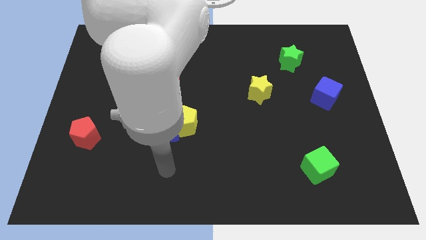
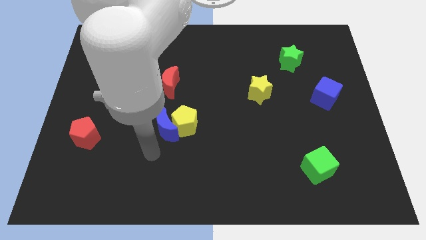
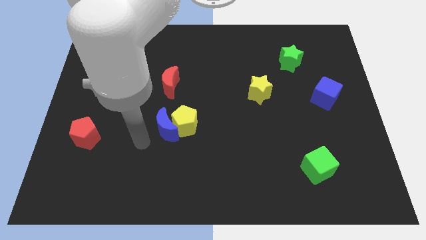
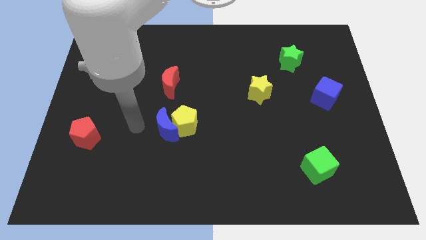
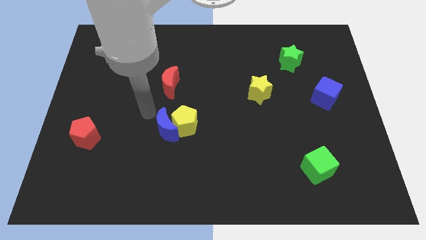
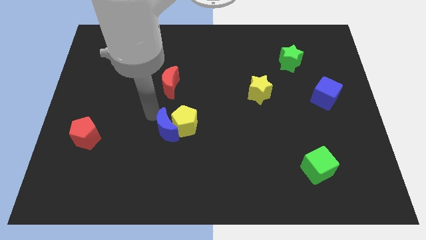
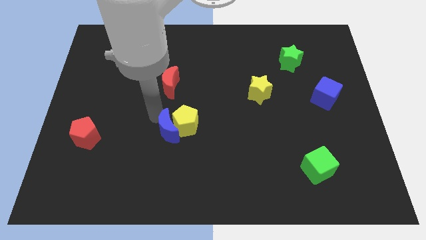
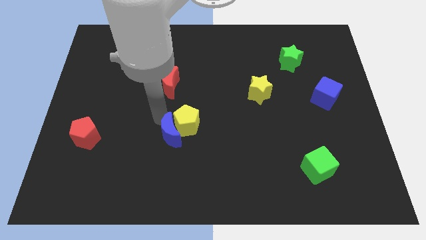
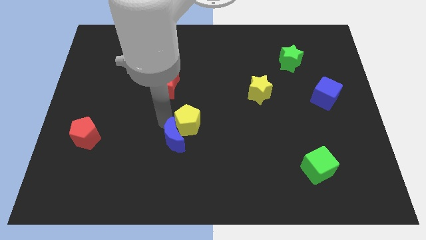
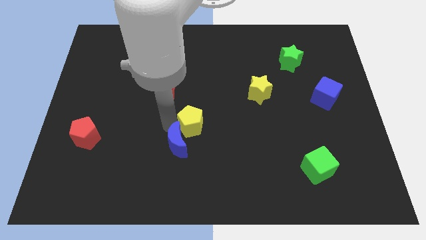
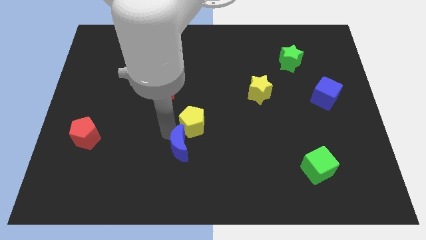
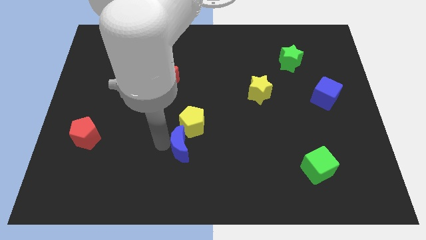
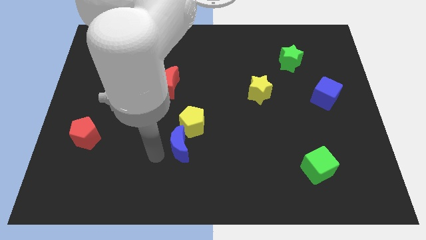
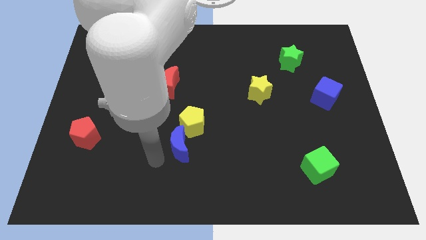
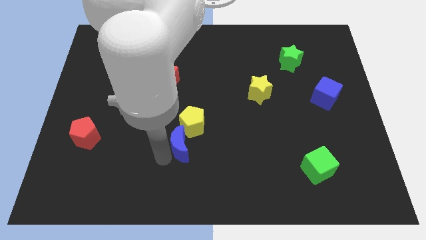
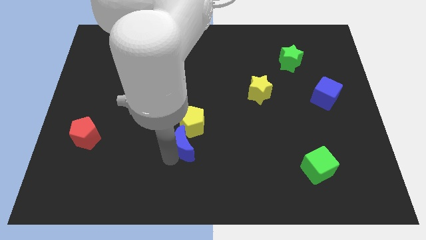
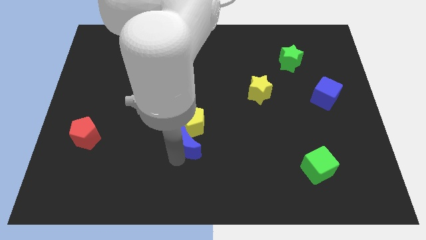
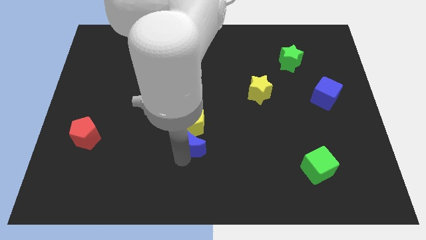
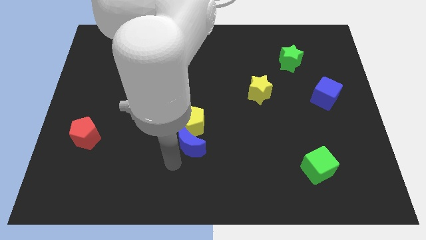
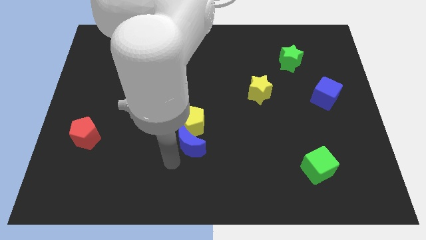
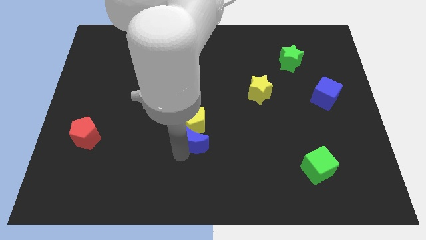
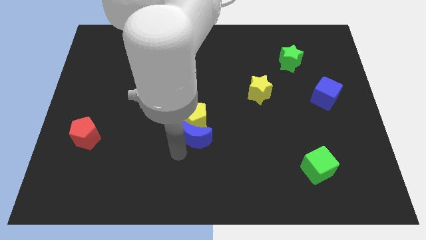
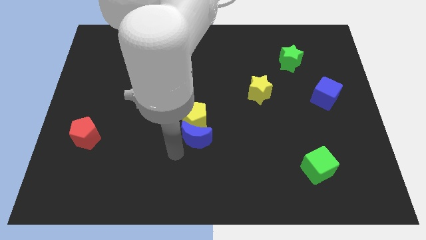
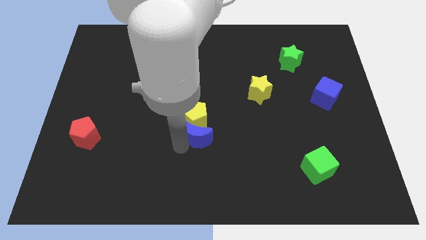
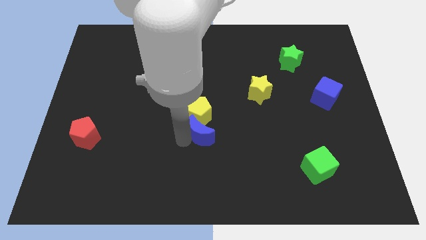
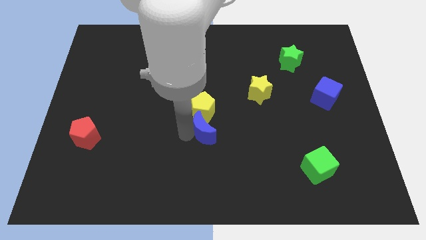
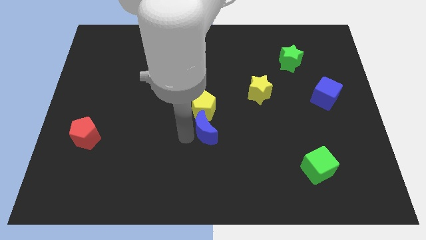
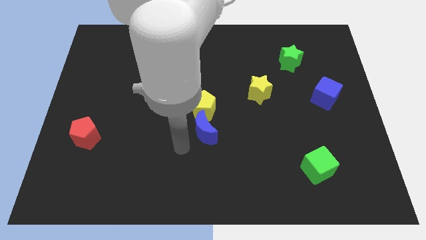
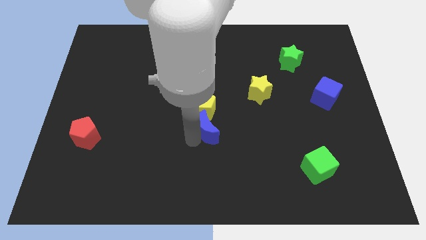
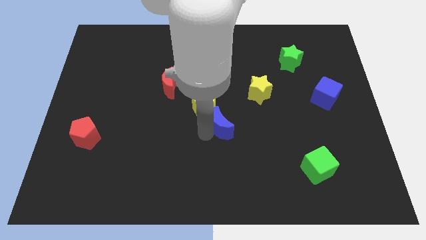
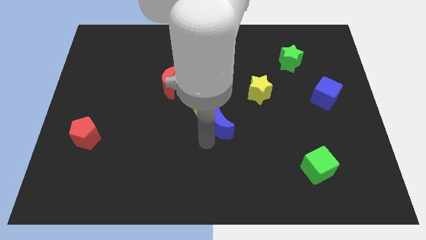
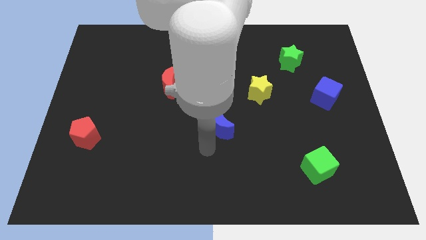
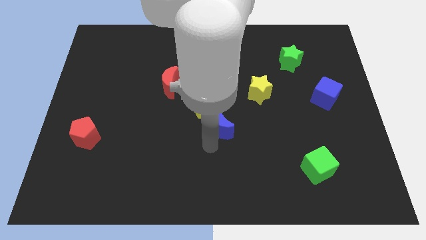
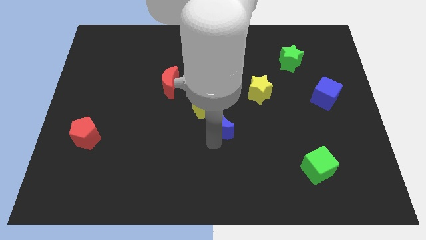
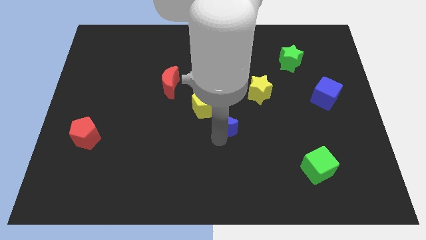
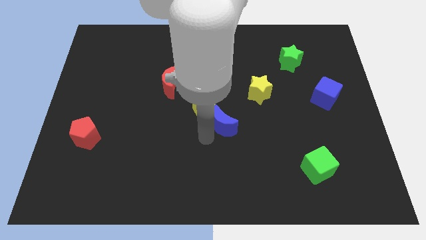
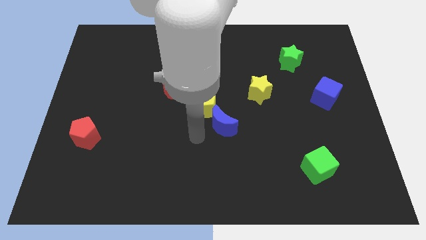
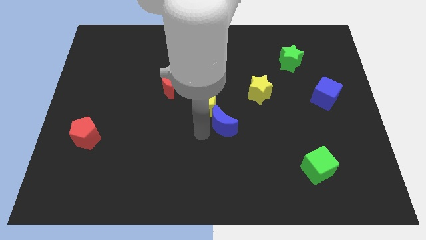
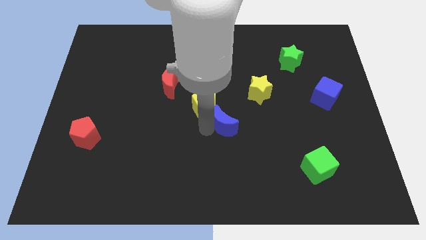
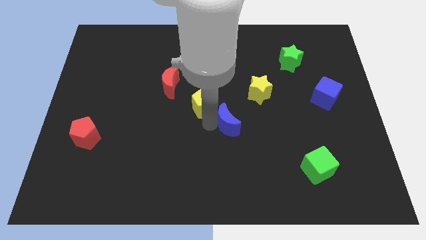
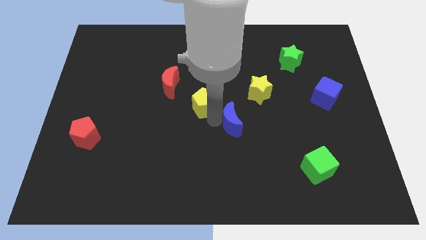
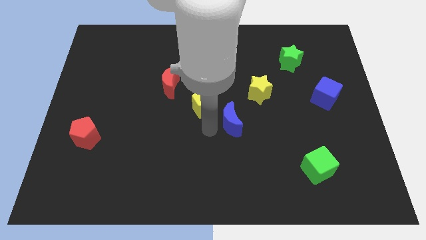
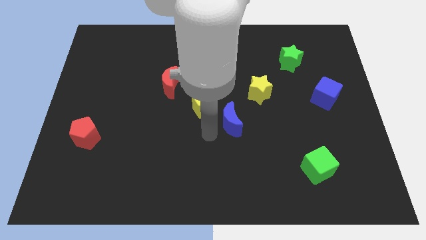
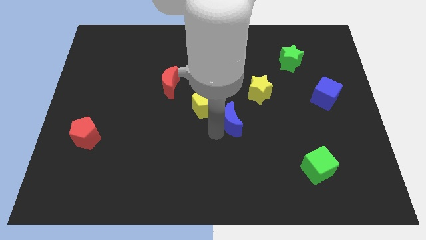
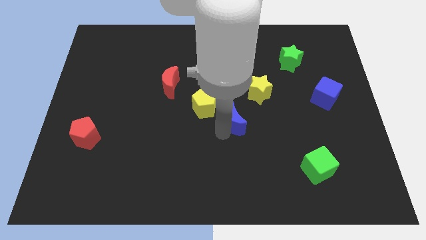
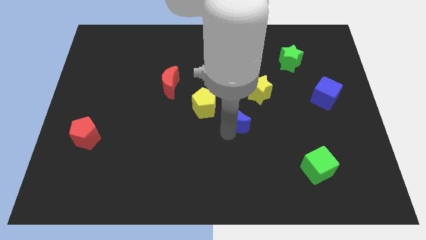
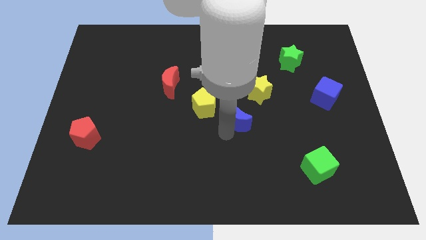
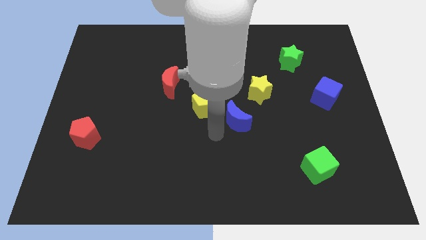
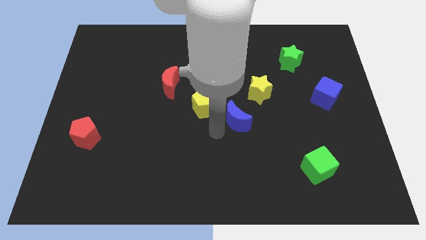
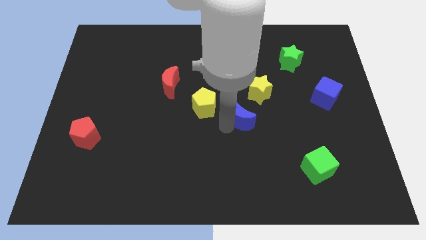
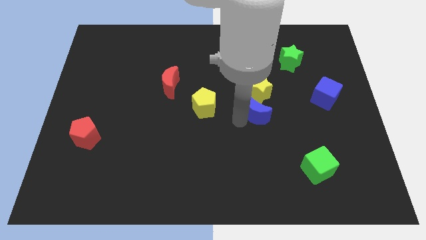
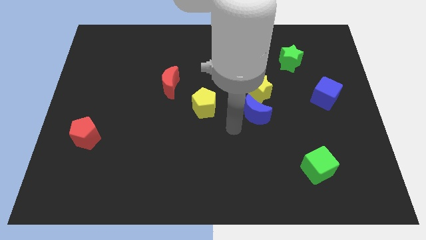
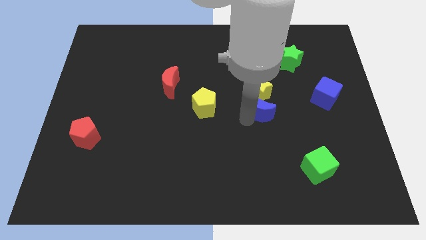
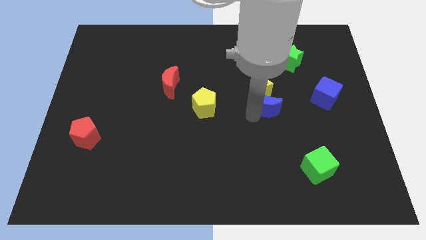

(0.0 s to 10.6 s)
move the blue moon to the left side of the blue cube

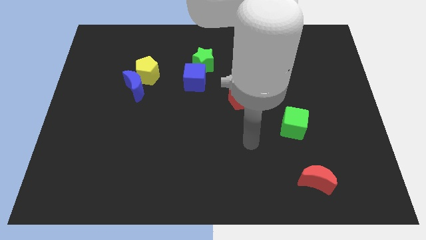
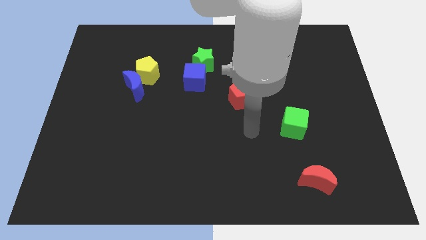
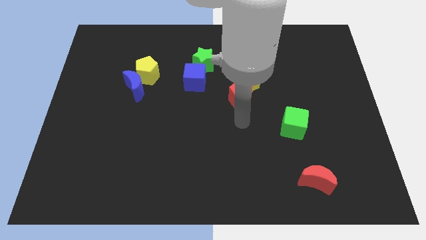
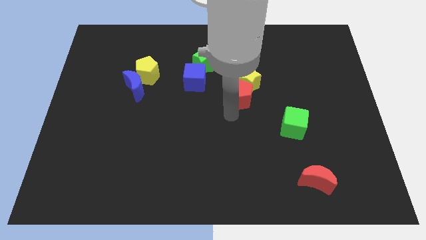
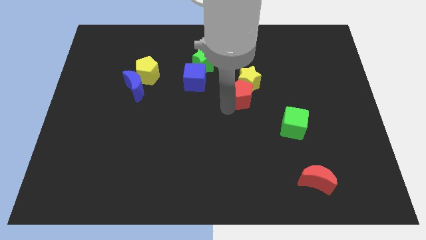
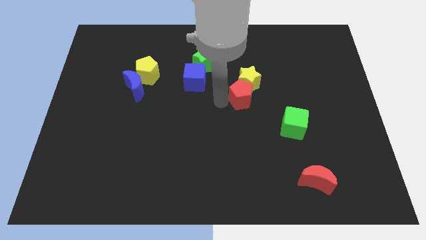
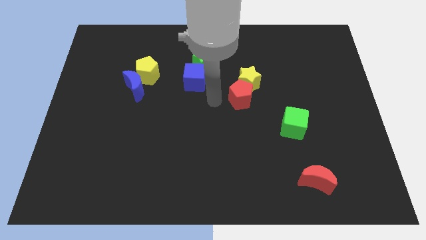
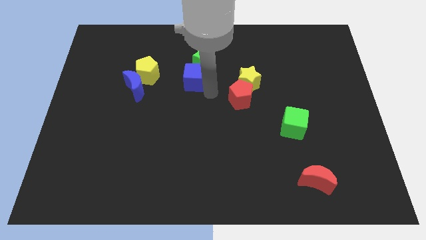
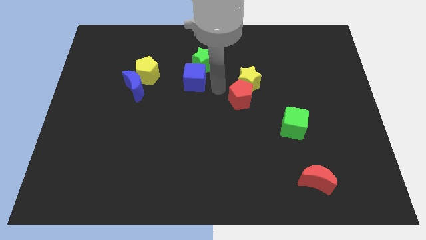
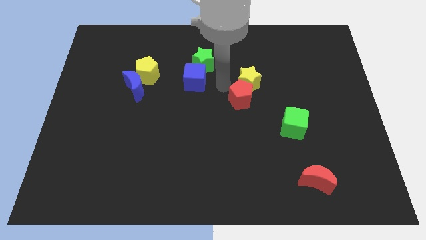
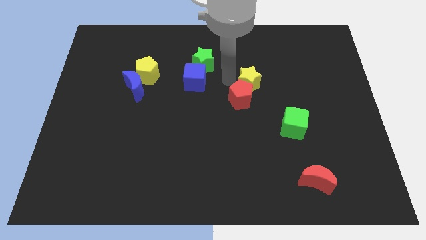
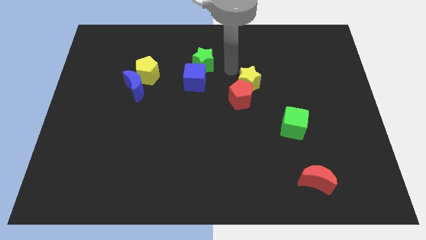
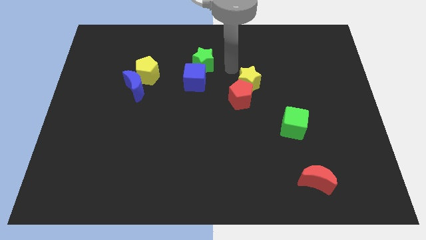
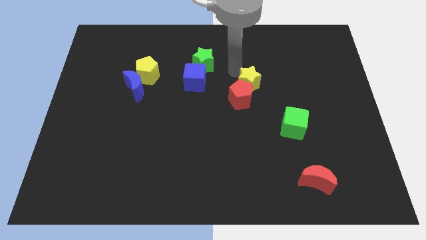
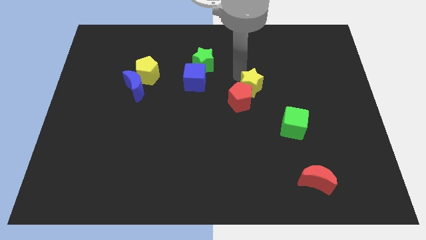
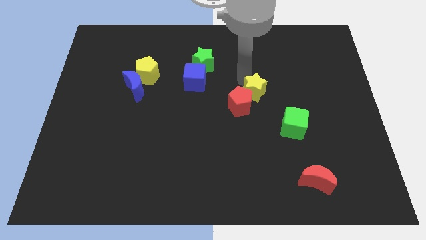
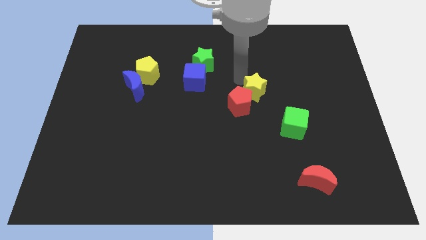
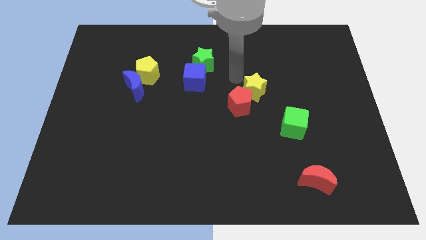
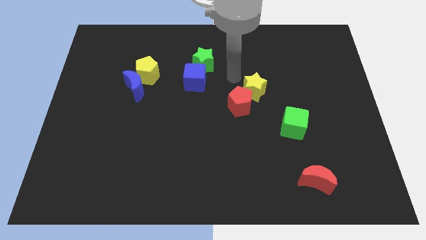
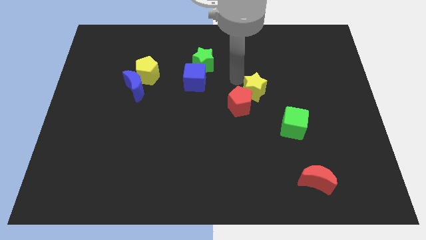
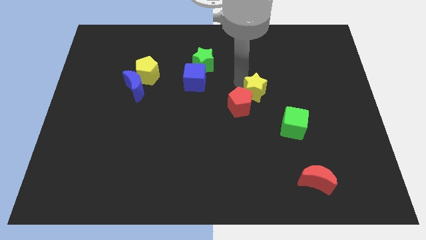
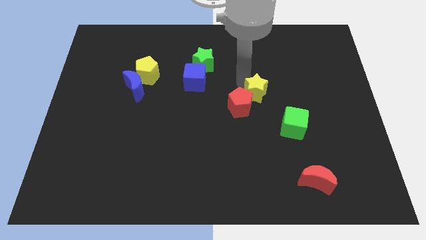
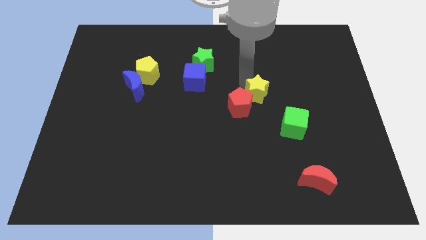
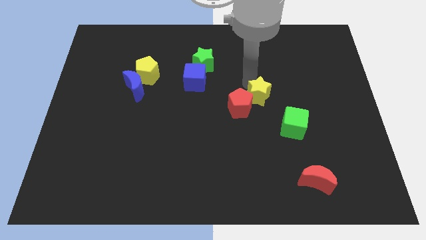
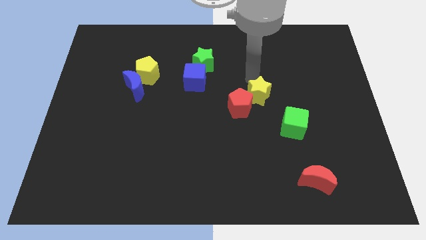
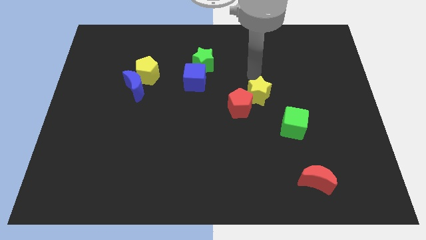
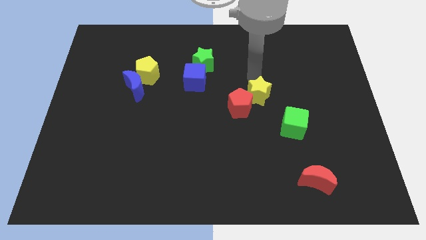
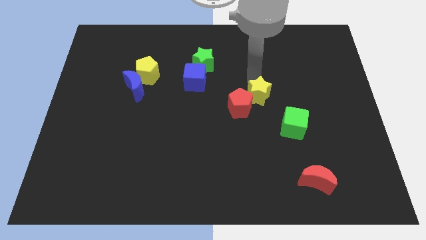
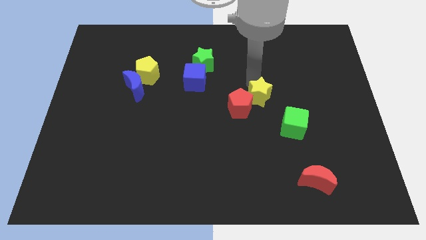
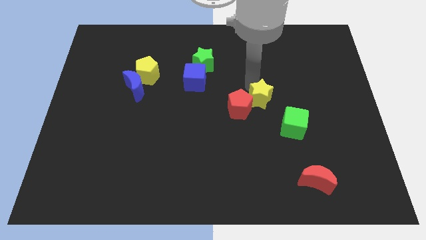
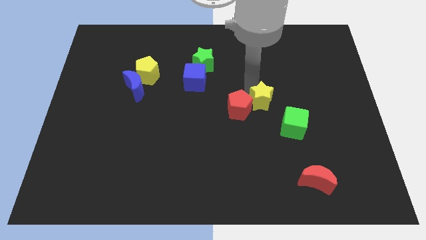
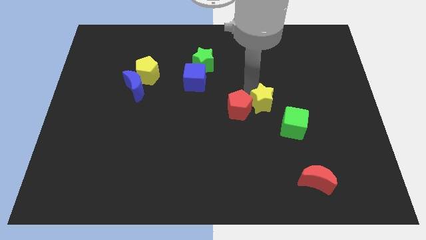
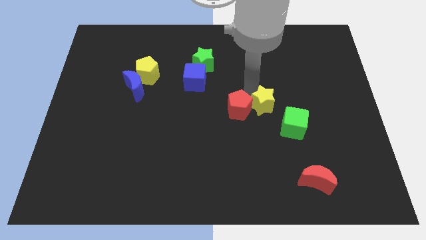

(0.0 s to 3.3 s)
put the yellow star to the bottom right side of the red pentagon
